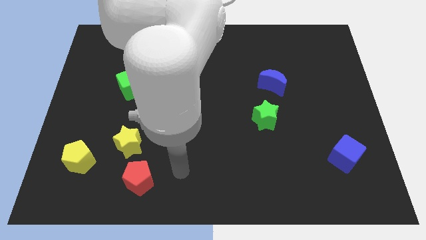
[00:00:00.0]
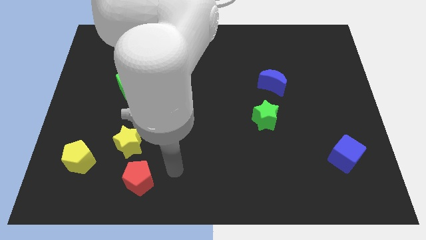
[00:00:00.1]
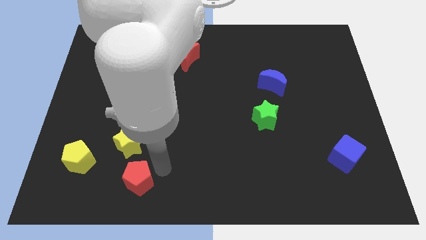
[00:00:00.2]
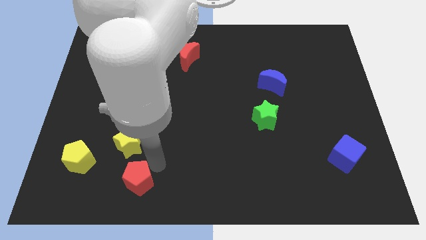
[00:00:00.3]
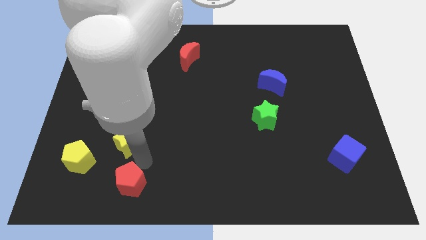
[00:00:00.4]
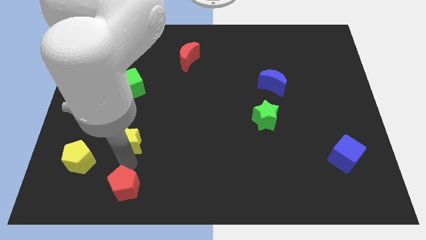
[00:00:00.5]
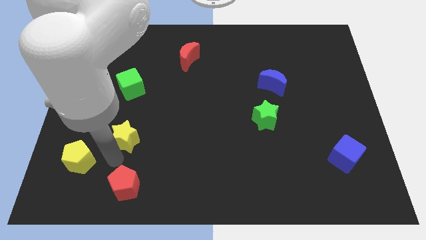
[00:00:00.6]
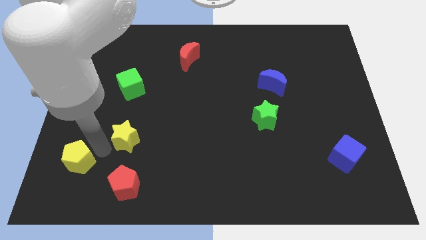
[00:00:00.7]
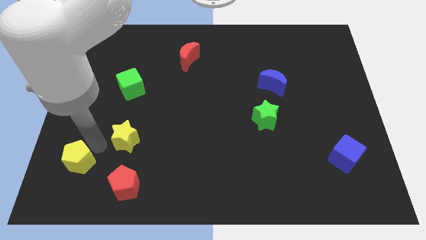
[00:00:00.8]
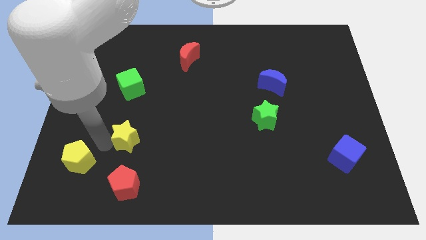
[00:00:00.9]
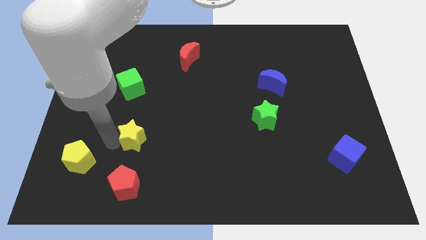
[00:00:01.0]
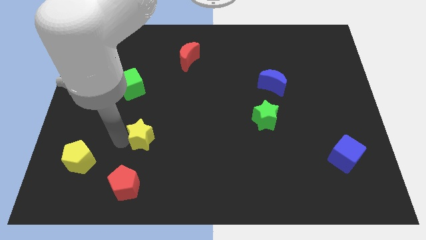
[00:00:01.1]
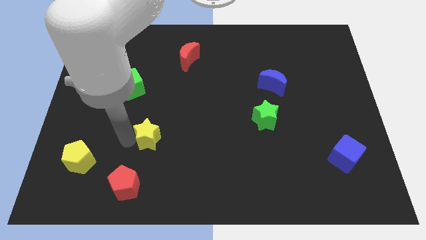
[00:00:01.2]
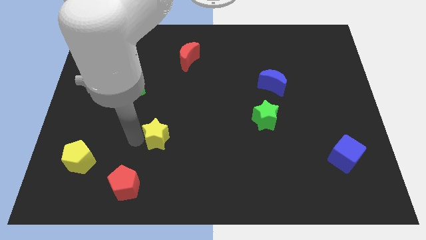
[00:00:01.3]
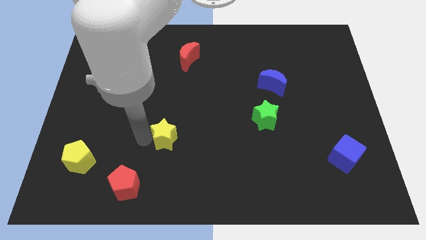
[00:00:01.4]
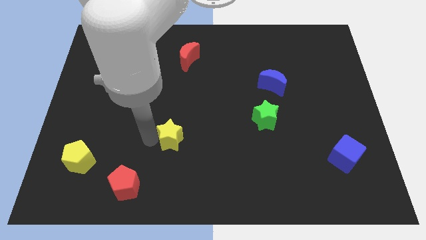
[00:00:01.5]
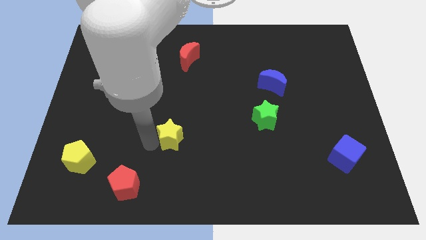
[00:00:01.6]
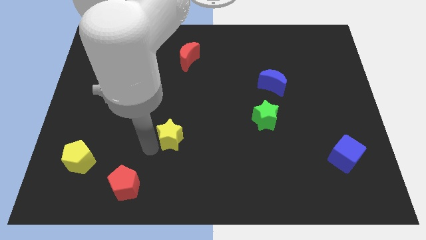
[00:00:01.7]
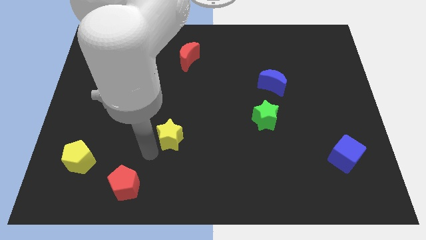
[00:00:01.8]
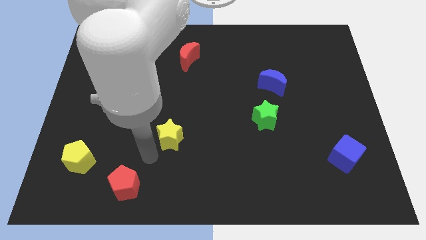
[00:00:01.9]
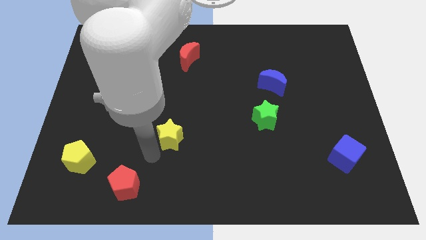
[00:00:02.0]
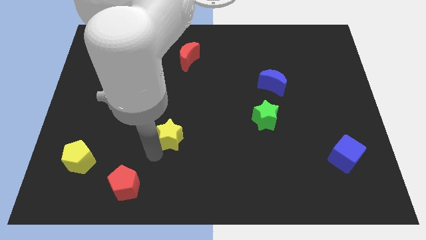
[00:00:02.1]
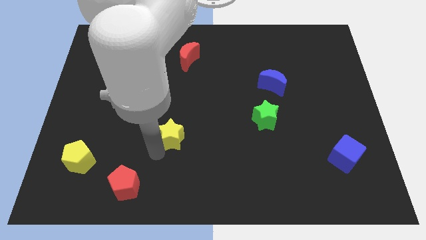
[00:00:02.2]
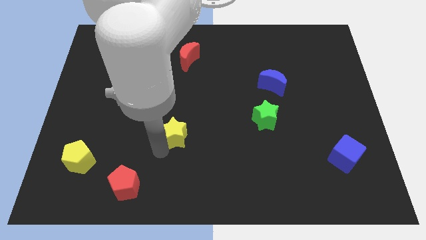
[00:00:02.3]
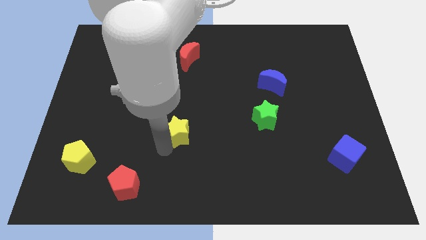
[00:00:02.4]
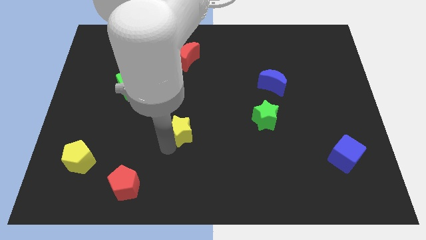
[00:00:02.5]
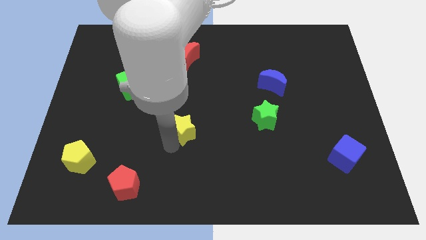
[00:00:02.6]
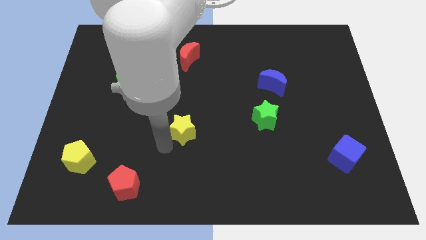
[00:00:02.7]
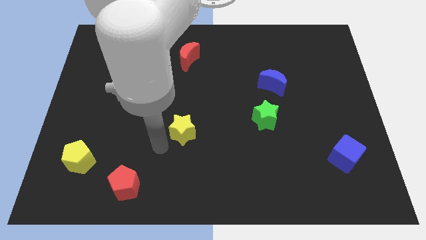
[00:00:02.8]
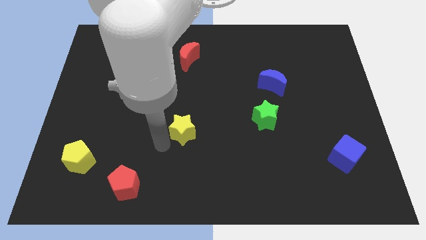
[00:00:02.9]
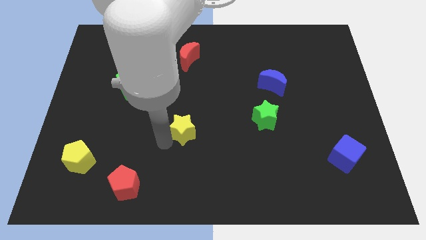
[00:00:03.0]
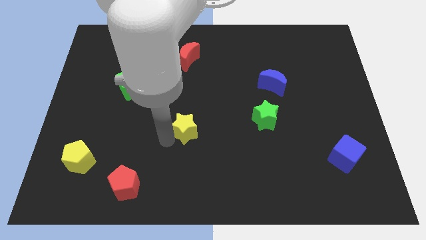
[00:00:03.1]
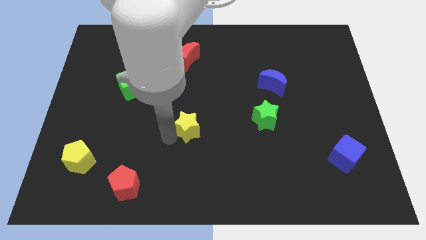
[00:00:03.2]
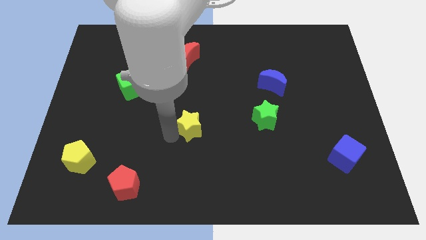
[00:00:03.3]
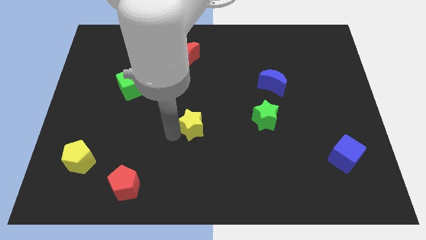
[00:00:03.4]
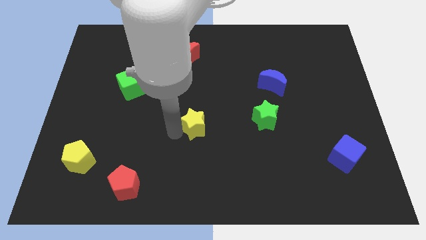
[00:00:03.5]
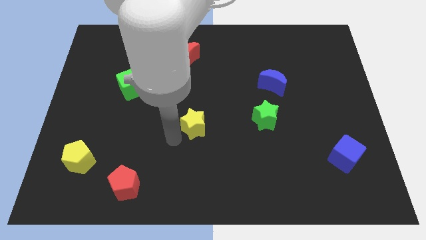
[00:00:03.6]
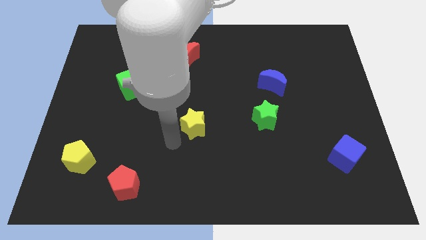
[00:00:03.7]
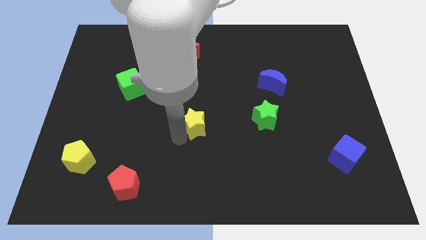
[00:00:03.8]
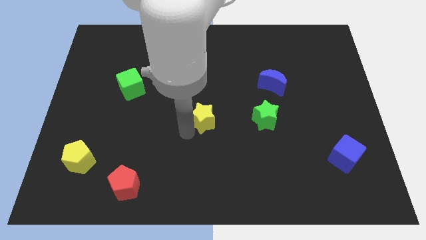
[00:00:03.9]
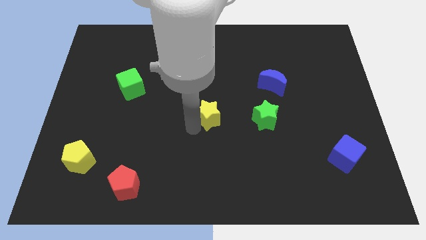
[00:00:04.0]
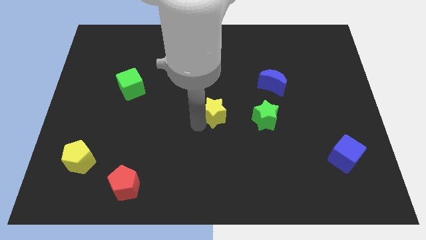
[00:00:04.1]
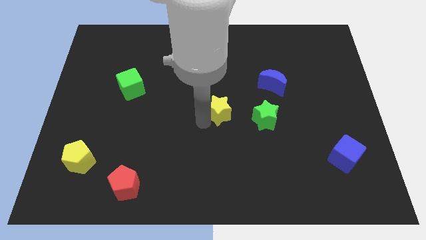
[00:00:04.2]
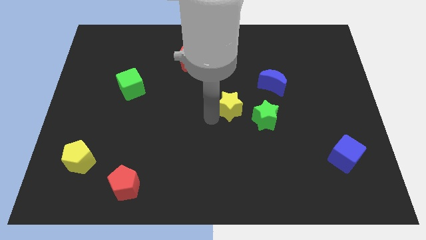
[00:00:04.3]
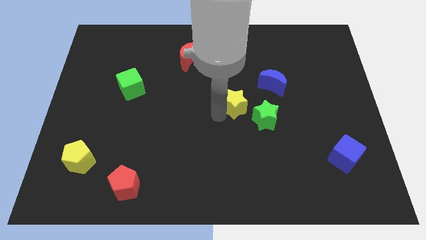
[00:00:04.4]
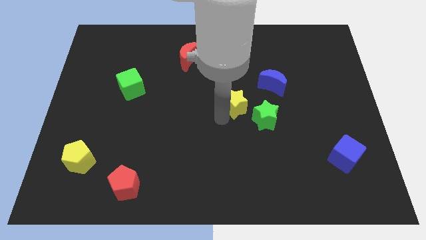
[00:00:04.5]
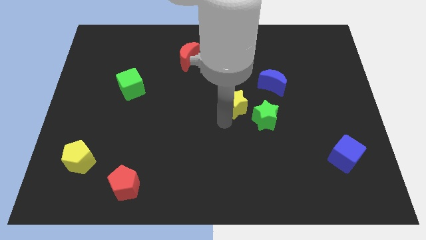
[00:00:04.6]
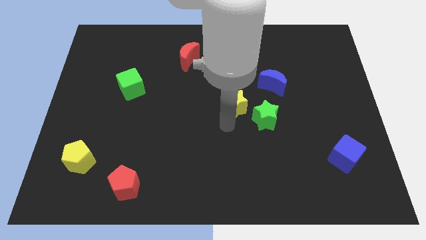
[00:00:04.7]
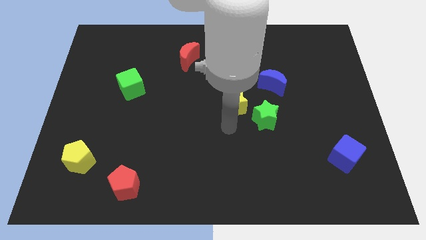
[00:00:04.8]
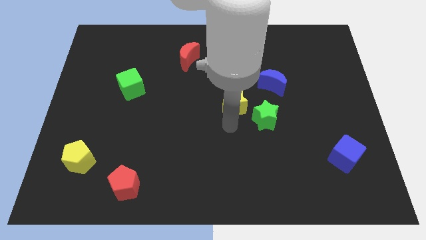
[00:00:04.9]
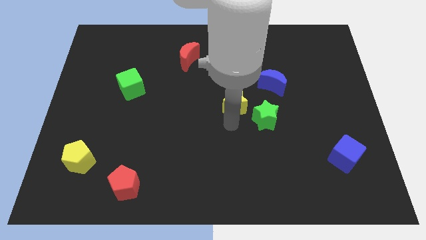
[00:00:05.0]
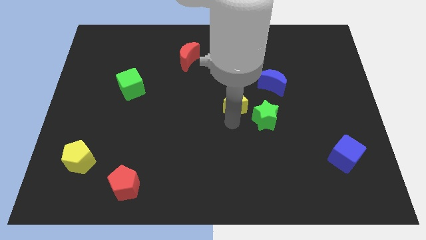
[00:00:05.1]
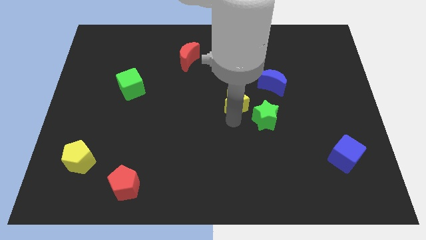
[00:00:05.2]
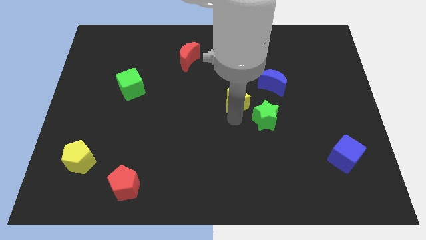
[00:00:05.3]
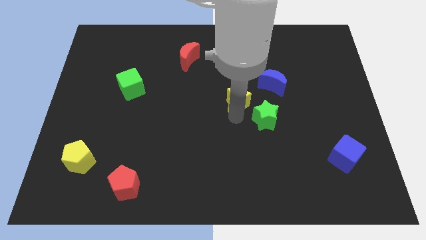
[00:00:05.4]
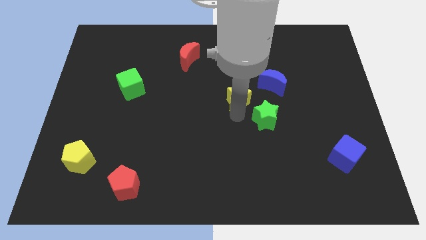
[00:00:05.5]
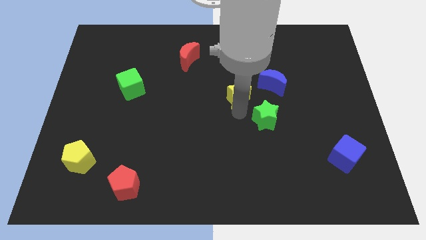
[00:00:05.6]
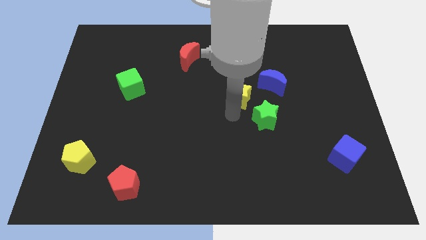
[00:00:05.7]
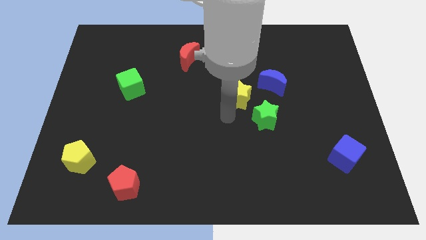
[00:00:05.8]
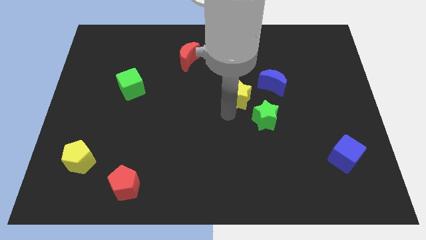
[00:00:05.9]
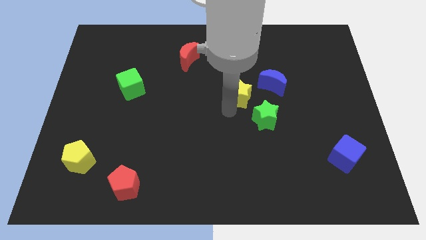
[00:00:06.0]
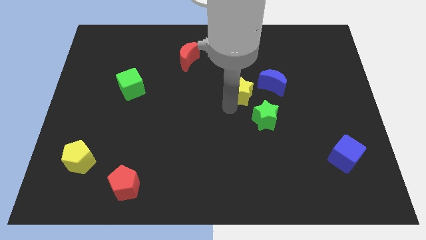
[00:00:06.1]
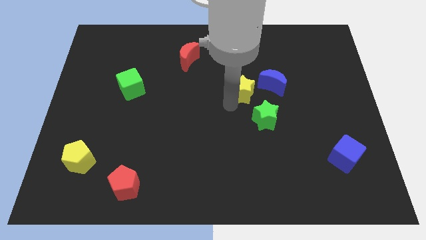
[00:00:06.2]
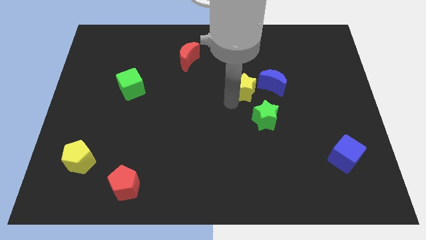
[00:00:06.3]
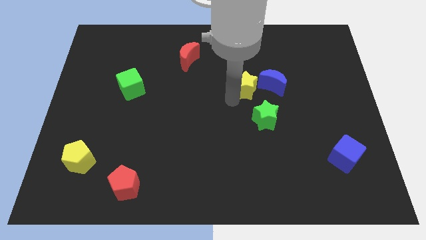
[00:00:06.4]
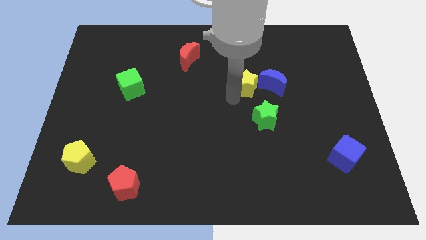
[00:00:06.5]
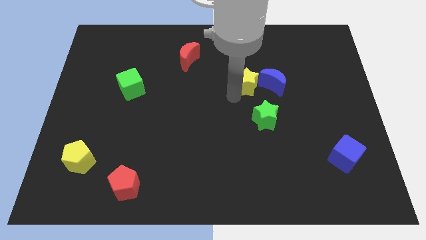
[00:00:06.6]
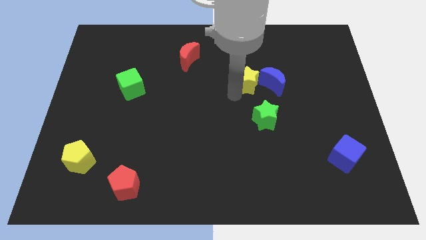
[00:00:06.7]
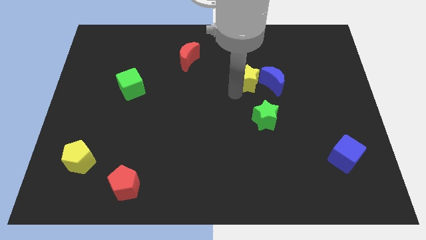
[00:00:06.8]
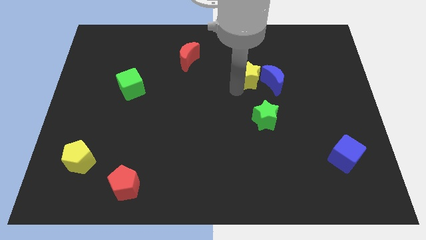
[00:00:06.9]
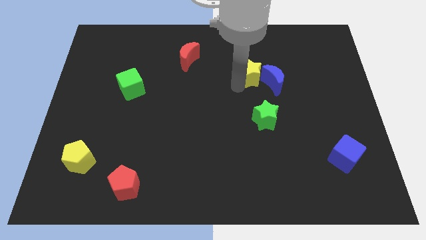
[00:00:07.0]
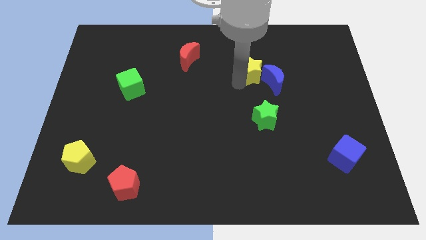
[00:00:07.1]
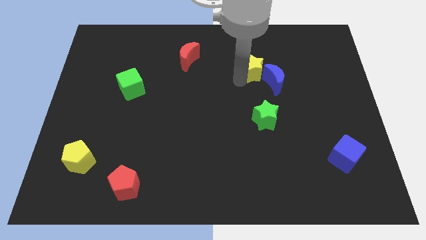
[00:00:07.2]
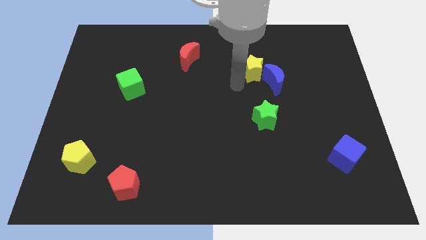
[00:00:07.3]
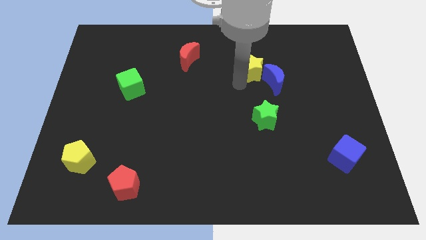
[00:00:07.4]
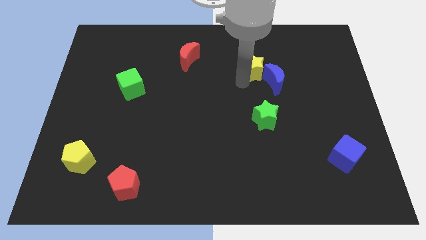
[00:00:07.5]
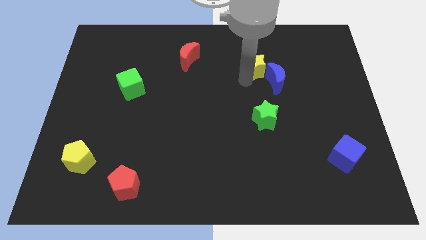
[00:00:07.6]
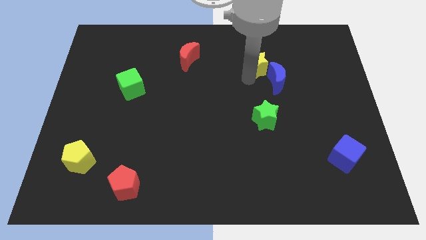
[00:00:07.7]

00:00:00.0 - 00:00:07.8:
push the yellow star above the blue moon

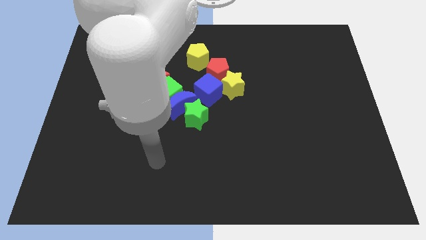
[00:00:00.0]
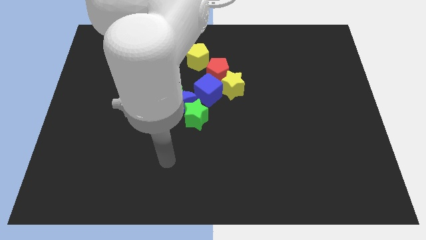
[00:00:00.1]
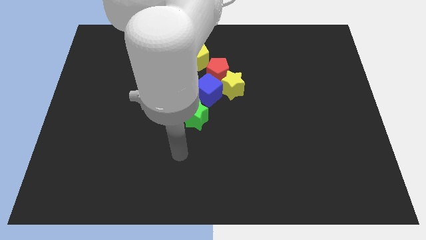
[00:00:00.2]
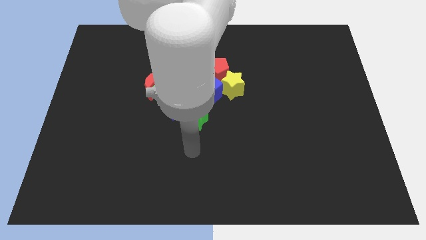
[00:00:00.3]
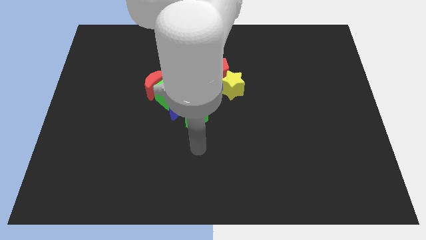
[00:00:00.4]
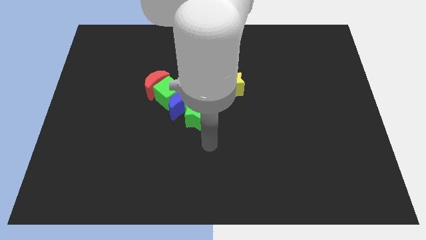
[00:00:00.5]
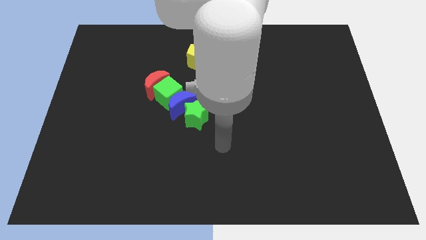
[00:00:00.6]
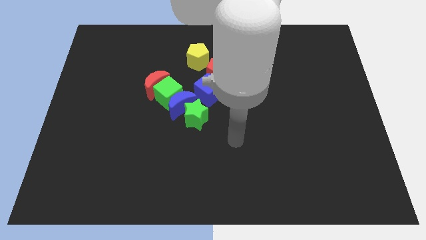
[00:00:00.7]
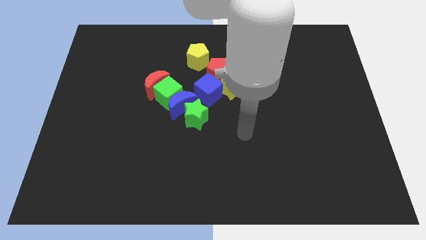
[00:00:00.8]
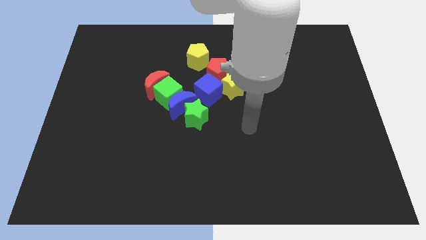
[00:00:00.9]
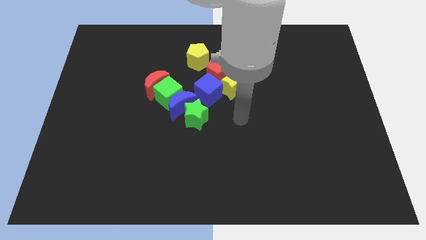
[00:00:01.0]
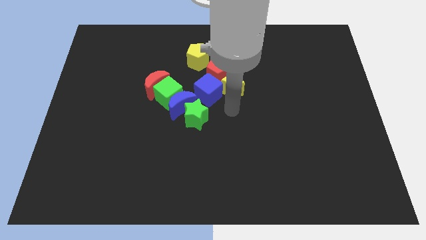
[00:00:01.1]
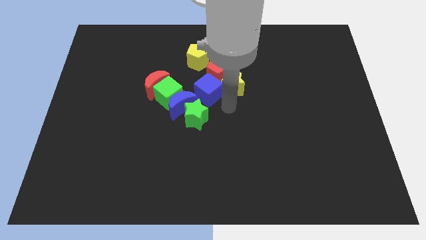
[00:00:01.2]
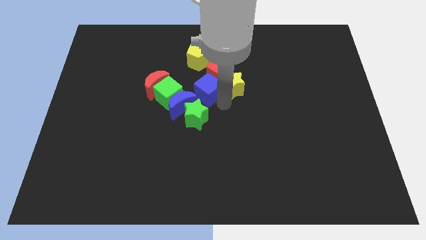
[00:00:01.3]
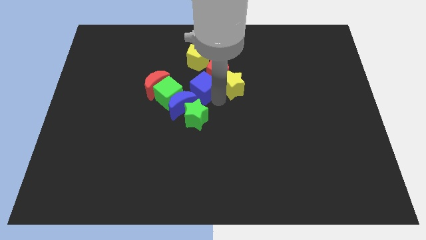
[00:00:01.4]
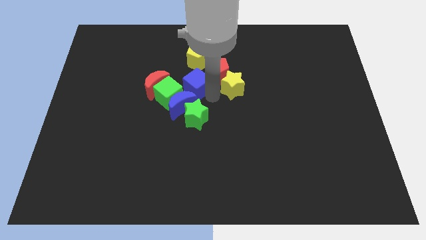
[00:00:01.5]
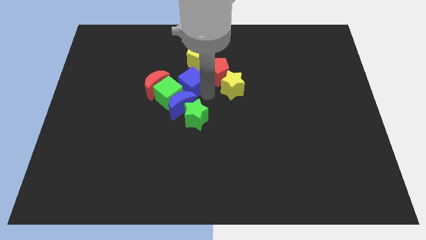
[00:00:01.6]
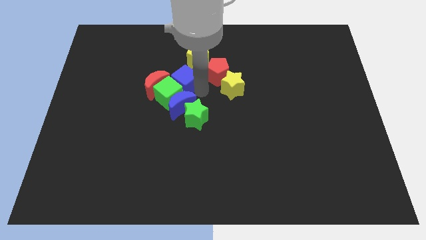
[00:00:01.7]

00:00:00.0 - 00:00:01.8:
slide the blue cube to the top right side of the red moon
